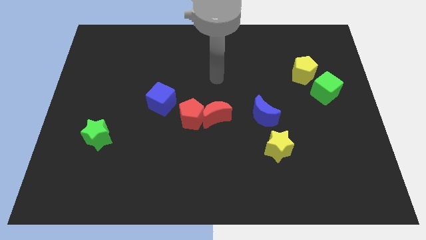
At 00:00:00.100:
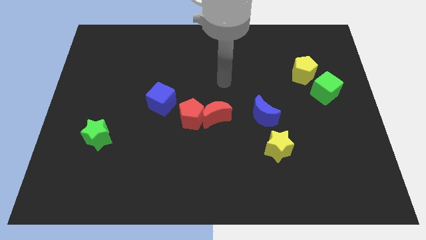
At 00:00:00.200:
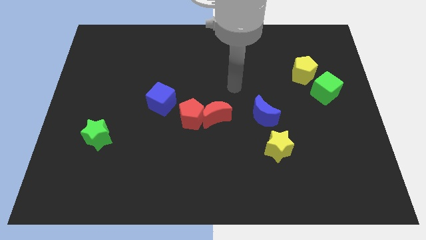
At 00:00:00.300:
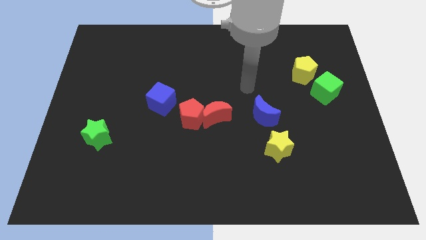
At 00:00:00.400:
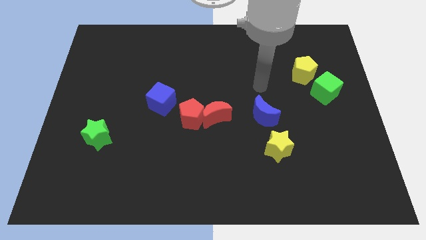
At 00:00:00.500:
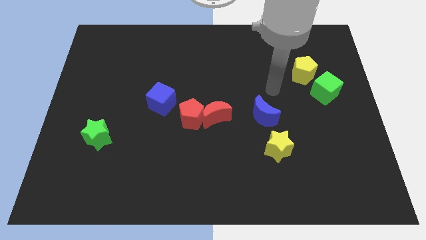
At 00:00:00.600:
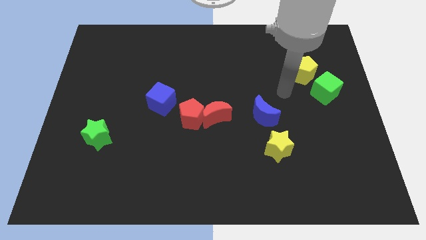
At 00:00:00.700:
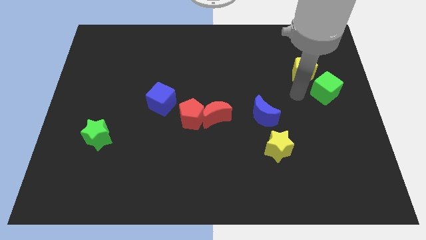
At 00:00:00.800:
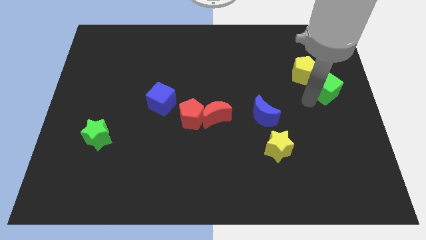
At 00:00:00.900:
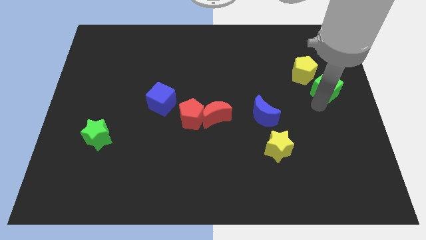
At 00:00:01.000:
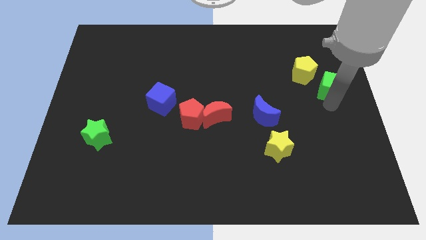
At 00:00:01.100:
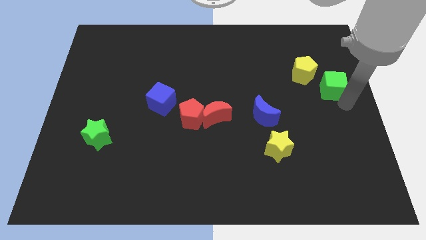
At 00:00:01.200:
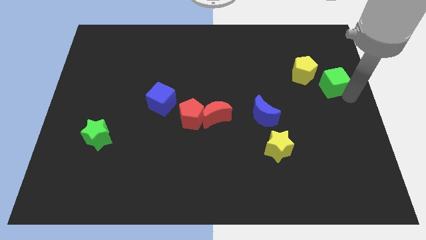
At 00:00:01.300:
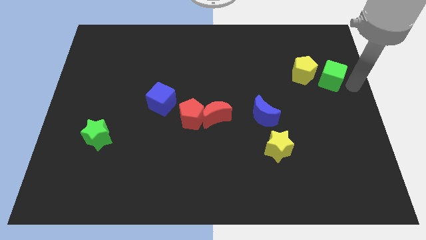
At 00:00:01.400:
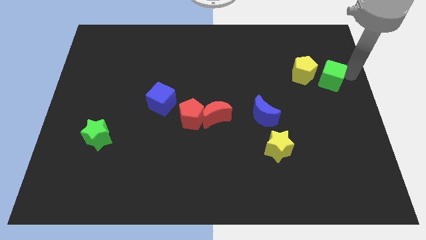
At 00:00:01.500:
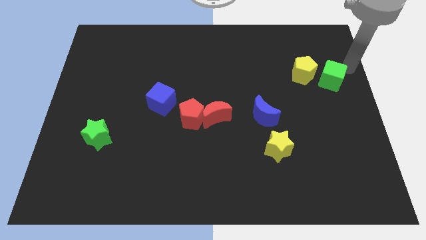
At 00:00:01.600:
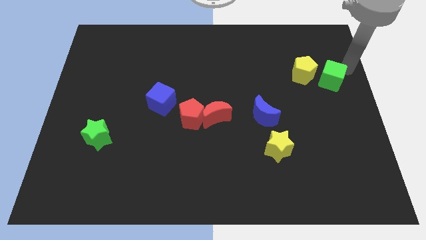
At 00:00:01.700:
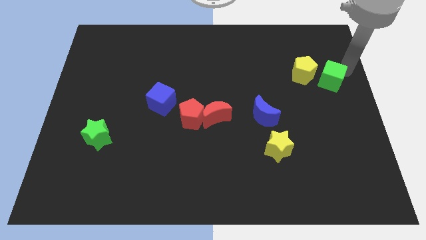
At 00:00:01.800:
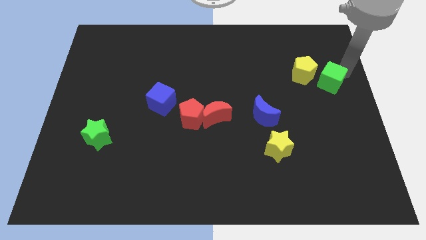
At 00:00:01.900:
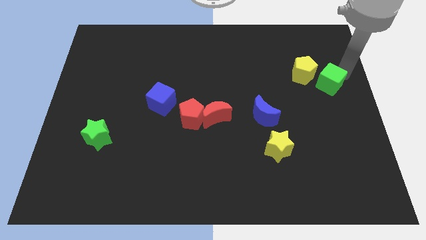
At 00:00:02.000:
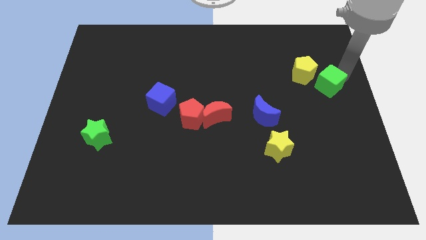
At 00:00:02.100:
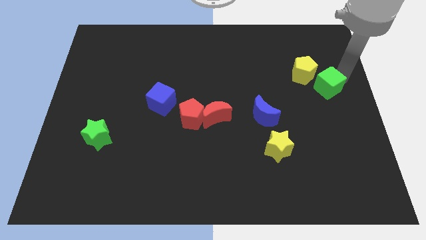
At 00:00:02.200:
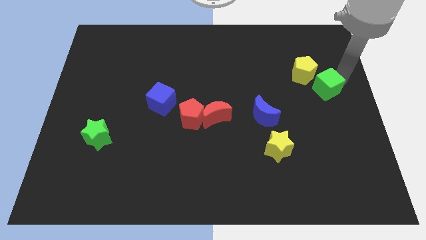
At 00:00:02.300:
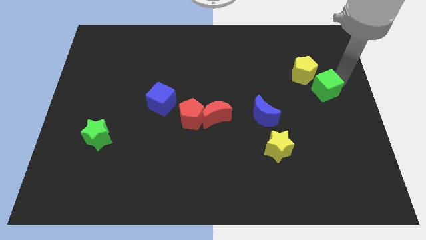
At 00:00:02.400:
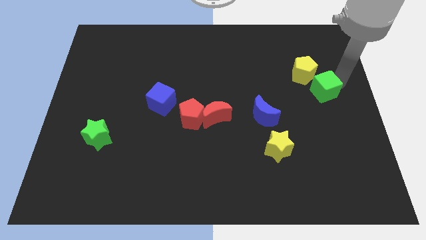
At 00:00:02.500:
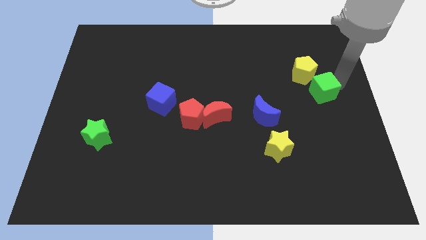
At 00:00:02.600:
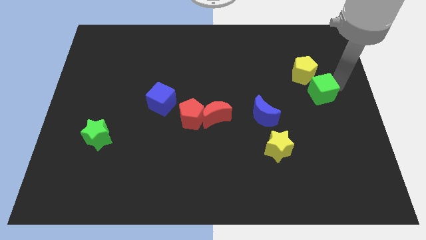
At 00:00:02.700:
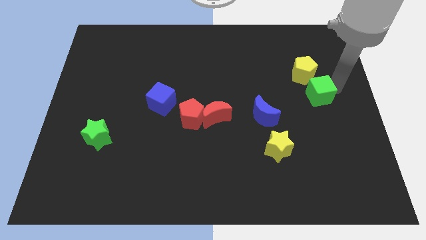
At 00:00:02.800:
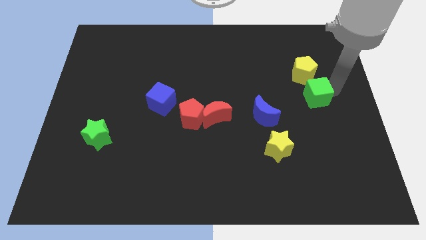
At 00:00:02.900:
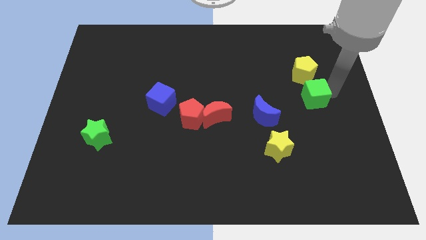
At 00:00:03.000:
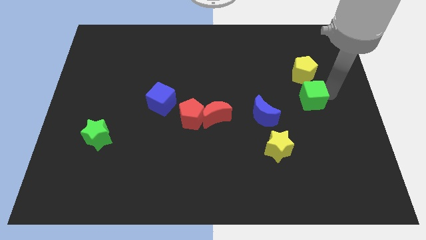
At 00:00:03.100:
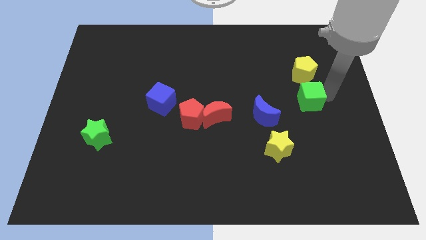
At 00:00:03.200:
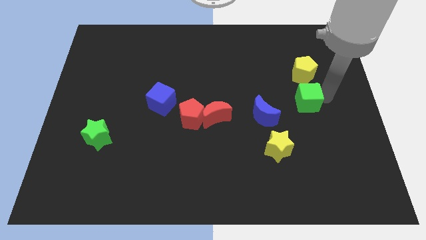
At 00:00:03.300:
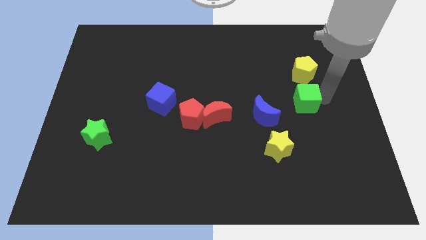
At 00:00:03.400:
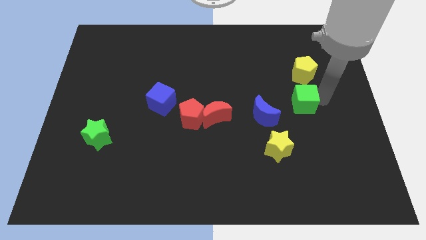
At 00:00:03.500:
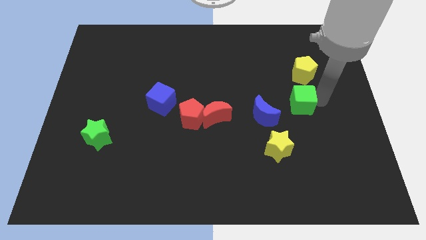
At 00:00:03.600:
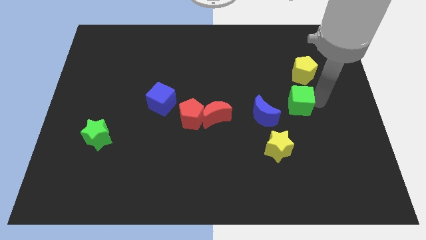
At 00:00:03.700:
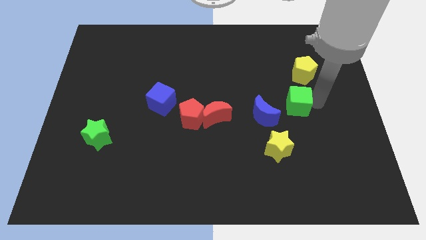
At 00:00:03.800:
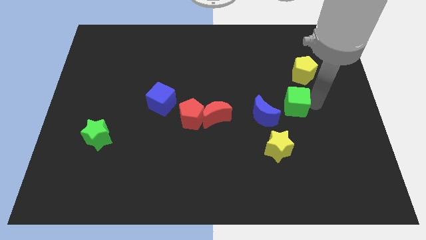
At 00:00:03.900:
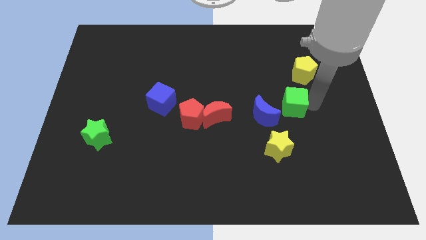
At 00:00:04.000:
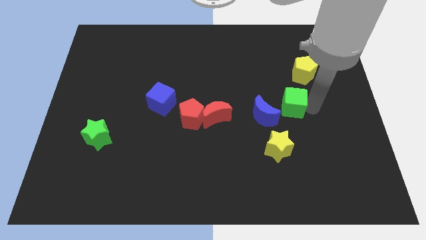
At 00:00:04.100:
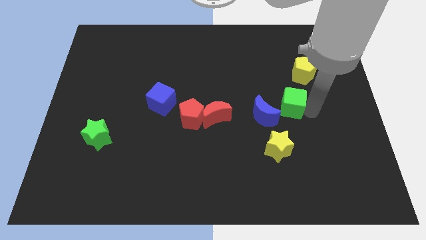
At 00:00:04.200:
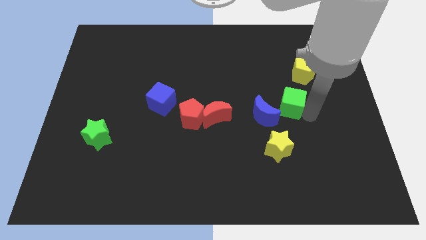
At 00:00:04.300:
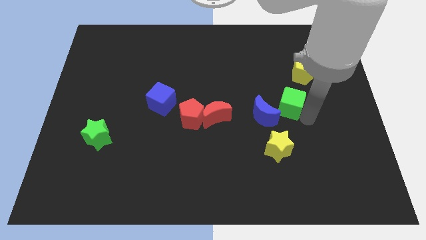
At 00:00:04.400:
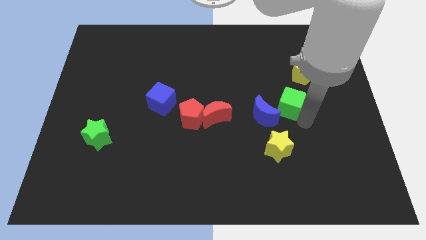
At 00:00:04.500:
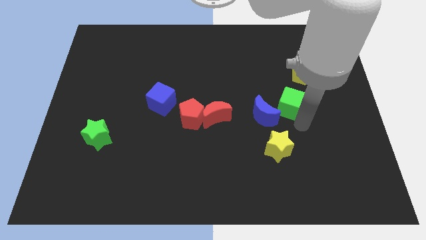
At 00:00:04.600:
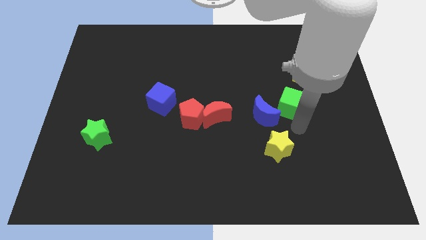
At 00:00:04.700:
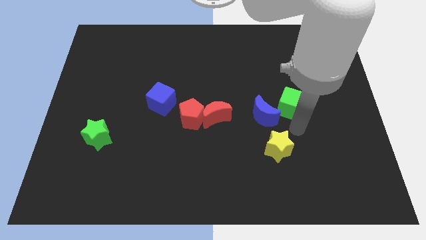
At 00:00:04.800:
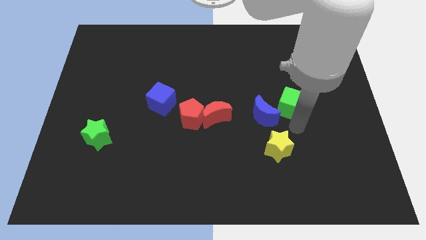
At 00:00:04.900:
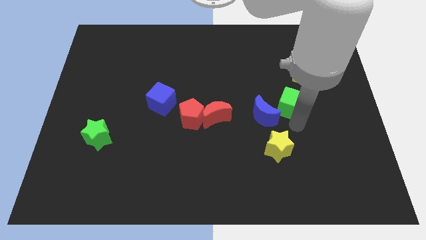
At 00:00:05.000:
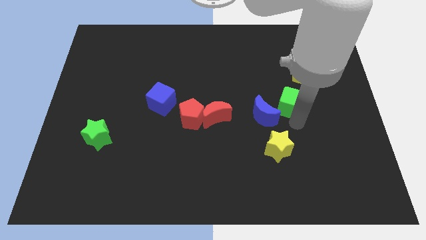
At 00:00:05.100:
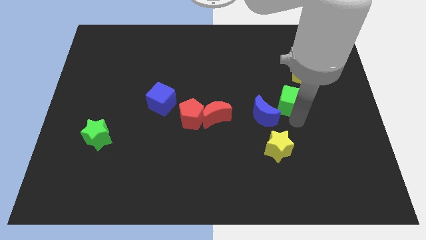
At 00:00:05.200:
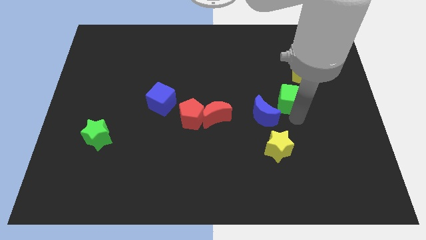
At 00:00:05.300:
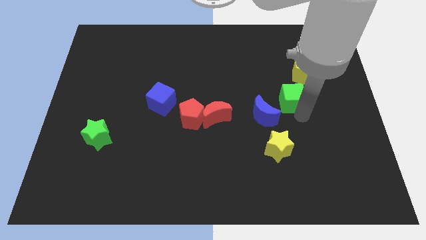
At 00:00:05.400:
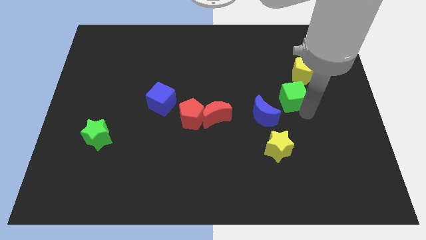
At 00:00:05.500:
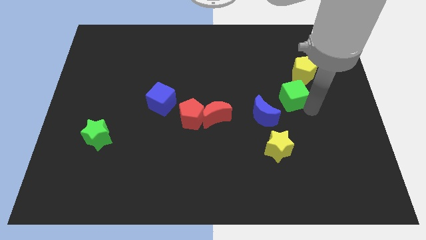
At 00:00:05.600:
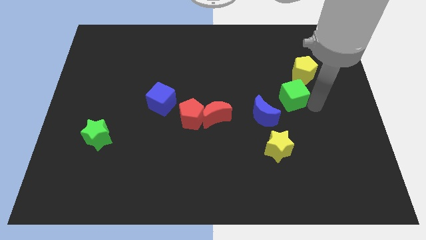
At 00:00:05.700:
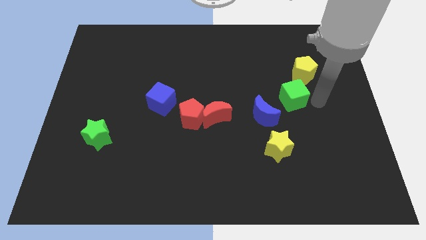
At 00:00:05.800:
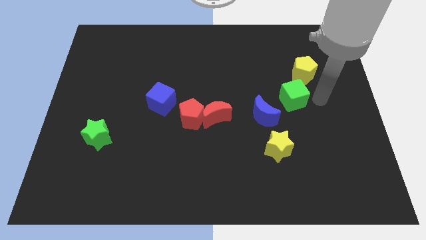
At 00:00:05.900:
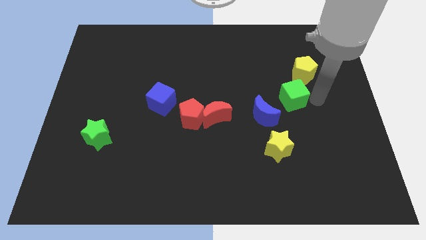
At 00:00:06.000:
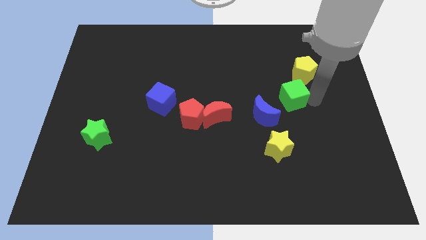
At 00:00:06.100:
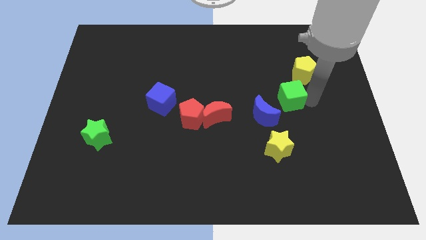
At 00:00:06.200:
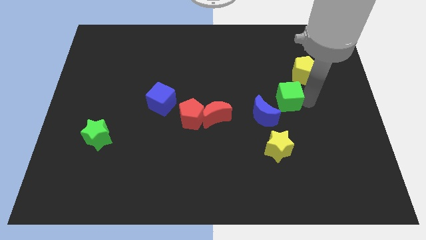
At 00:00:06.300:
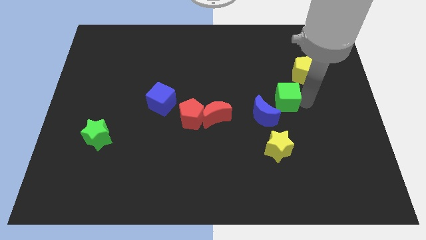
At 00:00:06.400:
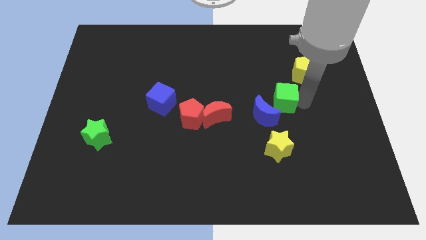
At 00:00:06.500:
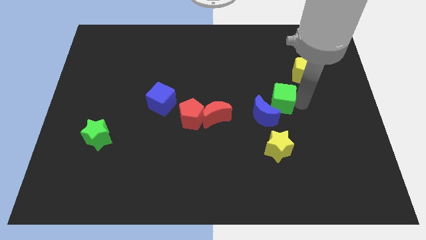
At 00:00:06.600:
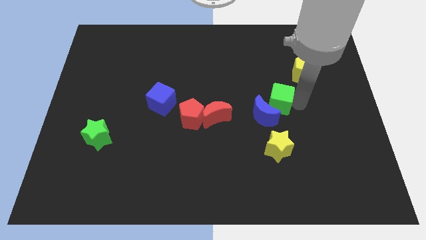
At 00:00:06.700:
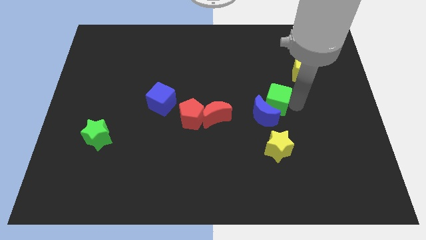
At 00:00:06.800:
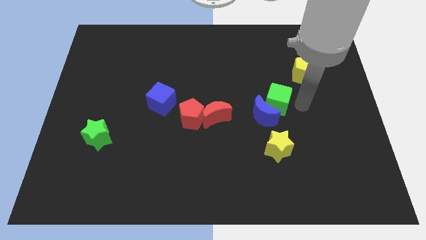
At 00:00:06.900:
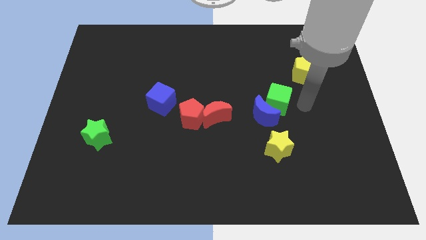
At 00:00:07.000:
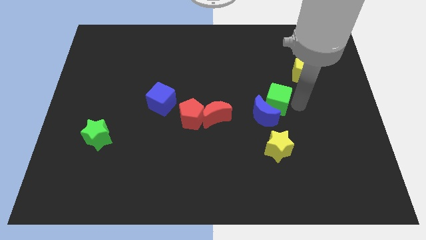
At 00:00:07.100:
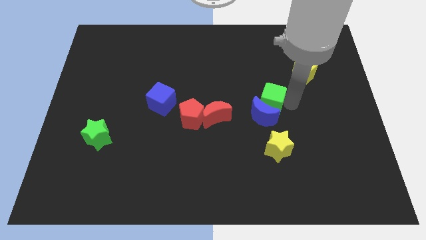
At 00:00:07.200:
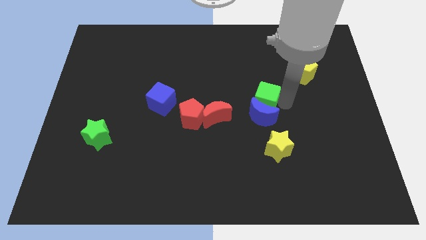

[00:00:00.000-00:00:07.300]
push the green cube to the middle of the board
